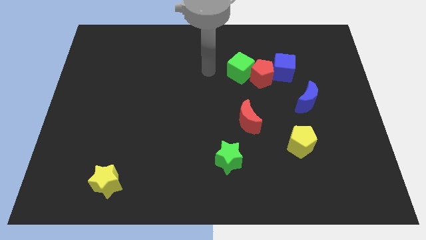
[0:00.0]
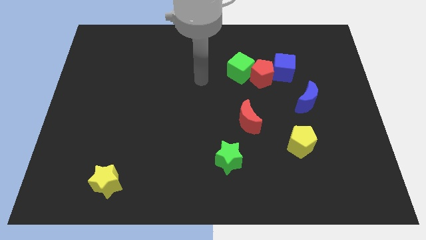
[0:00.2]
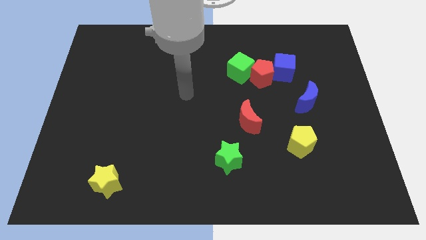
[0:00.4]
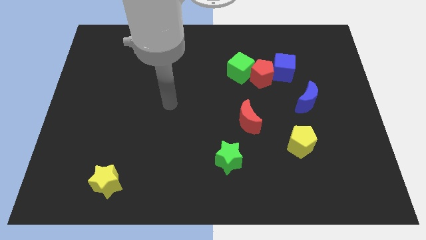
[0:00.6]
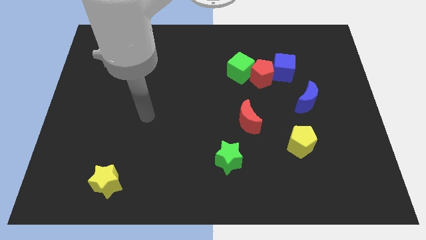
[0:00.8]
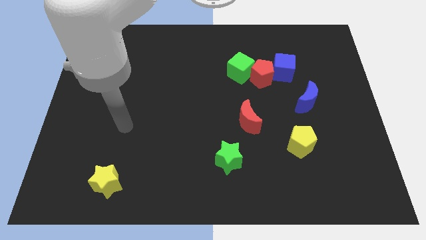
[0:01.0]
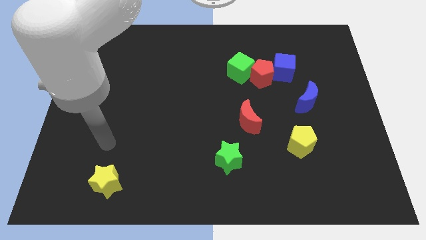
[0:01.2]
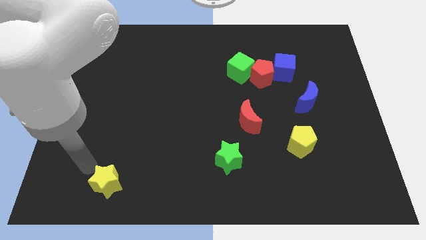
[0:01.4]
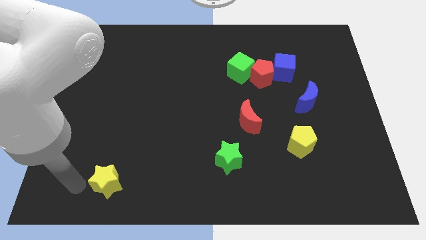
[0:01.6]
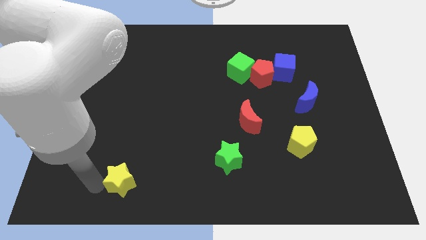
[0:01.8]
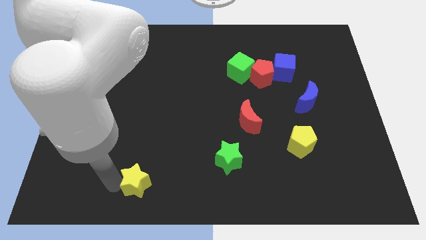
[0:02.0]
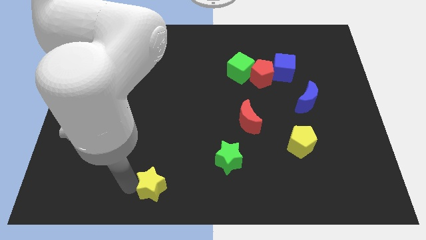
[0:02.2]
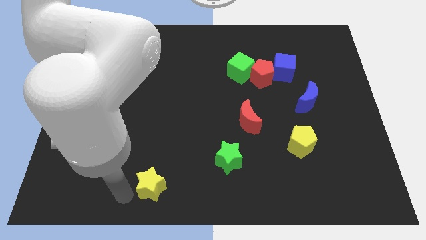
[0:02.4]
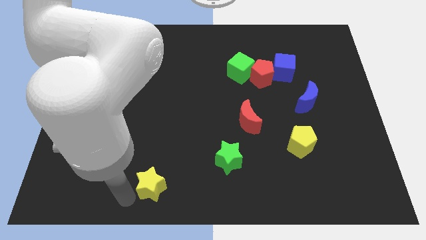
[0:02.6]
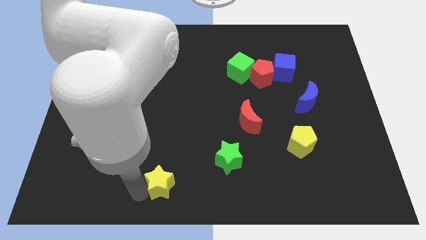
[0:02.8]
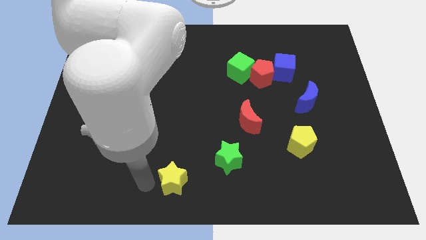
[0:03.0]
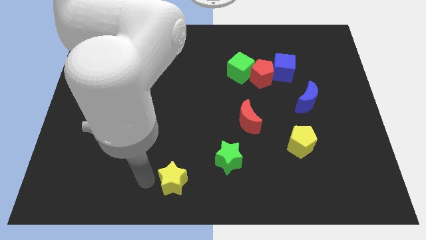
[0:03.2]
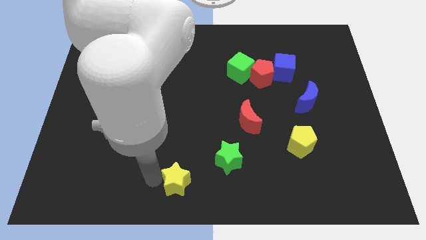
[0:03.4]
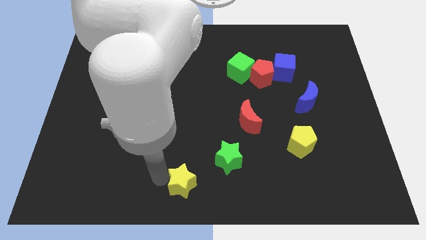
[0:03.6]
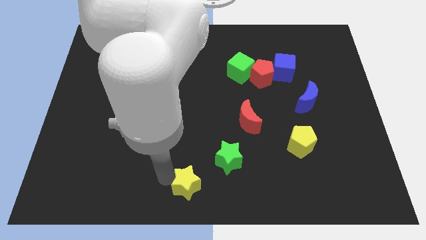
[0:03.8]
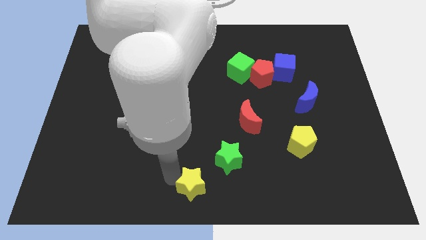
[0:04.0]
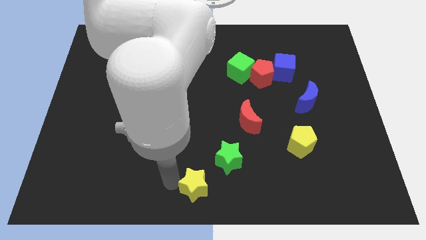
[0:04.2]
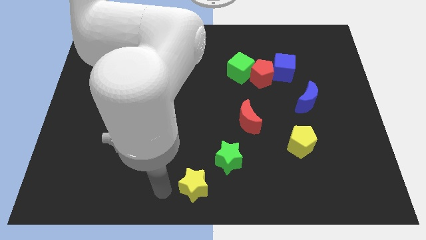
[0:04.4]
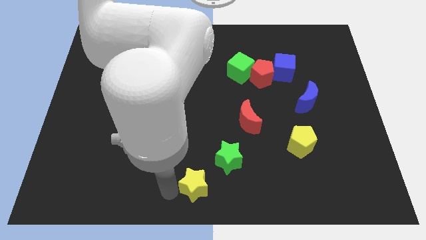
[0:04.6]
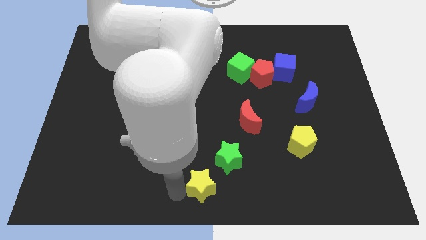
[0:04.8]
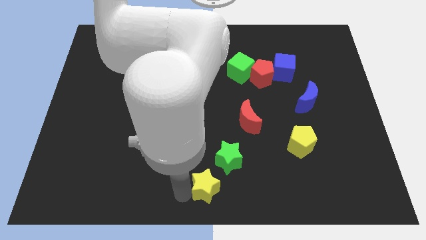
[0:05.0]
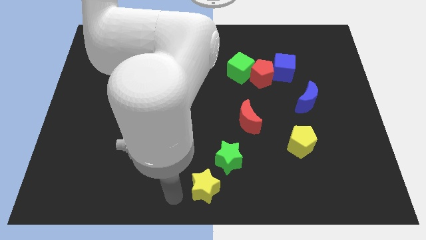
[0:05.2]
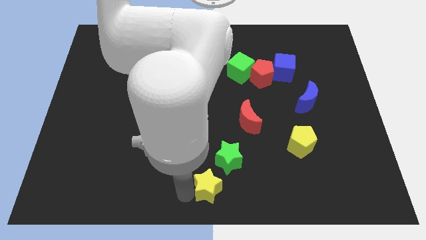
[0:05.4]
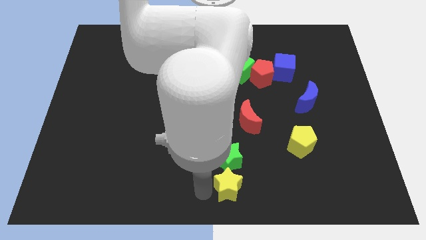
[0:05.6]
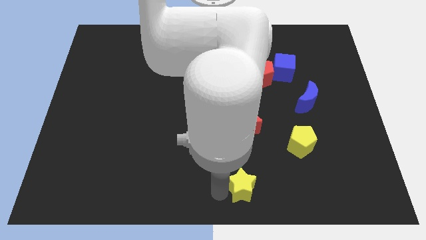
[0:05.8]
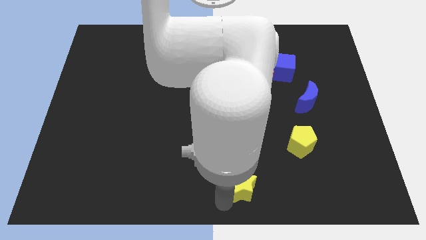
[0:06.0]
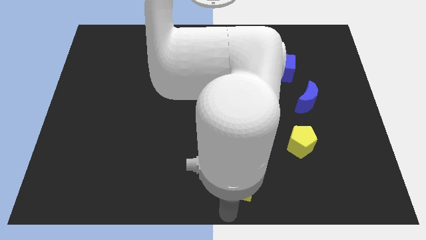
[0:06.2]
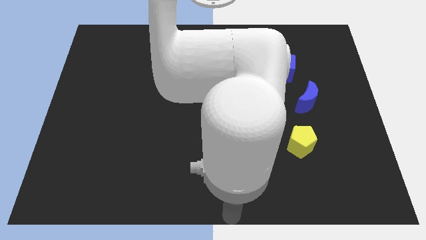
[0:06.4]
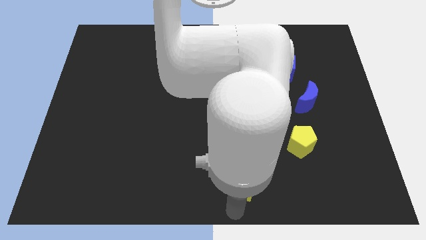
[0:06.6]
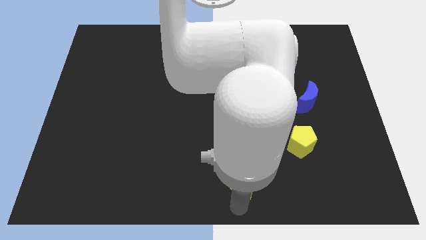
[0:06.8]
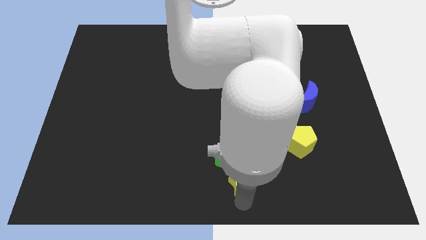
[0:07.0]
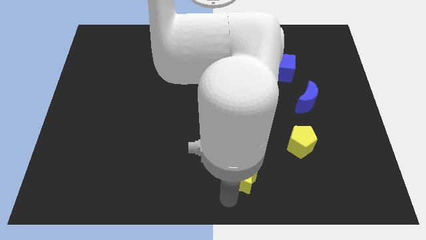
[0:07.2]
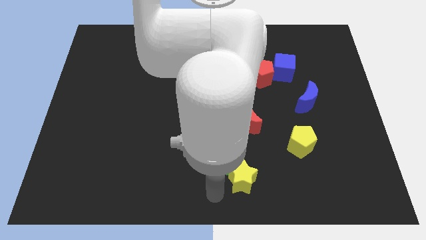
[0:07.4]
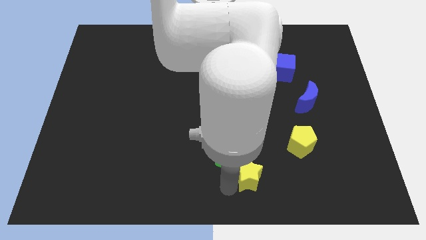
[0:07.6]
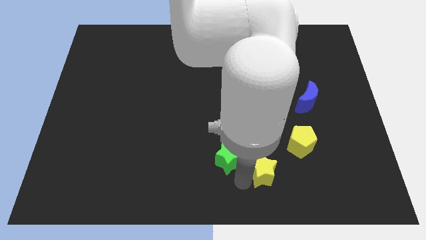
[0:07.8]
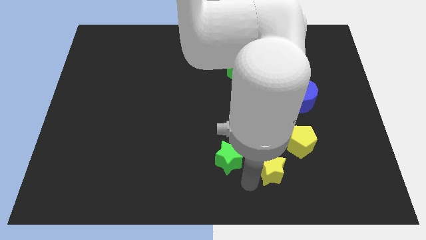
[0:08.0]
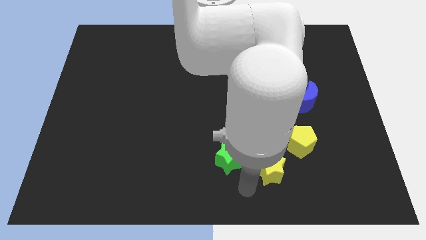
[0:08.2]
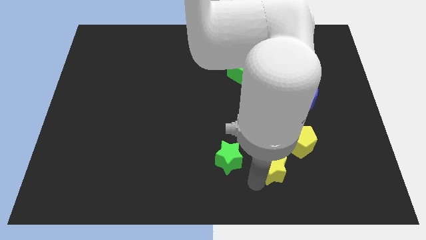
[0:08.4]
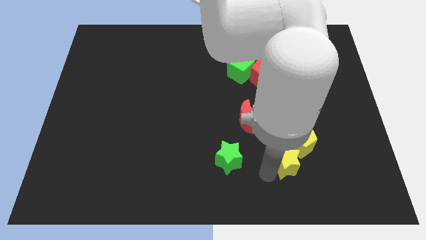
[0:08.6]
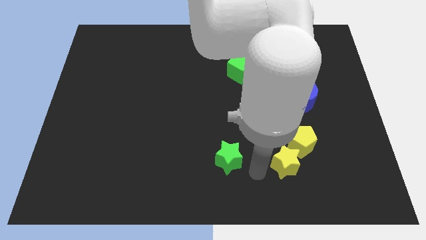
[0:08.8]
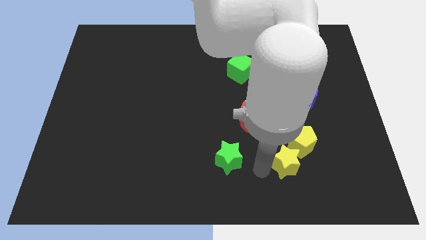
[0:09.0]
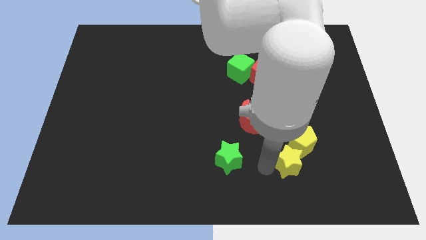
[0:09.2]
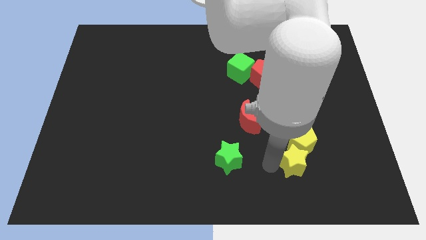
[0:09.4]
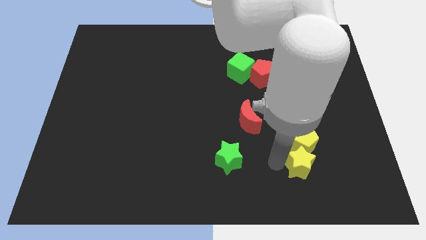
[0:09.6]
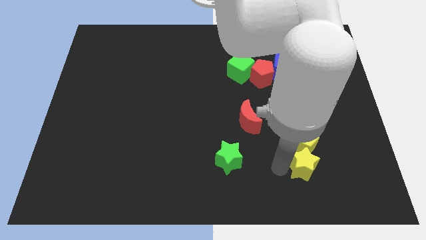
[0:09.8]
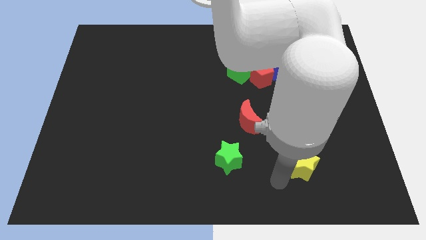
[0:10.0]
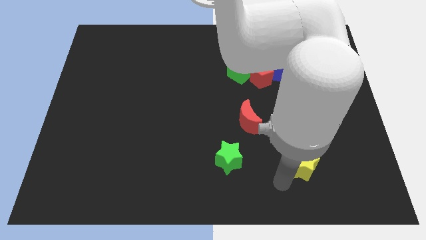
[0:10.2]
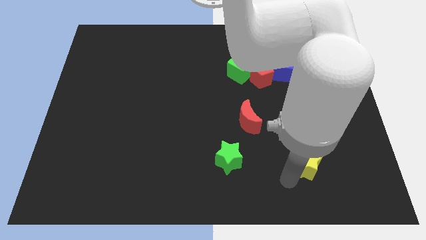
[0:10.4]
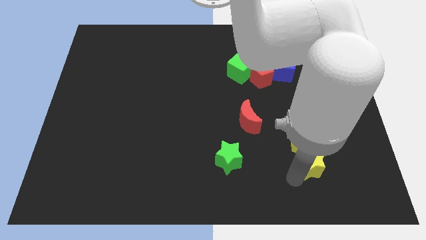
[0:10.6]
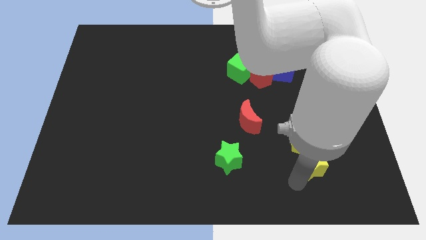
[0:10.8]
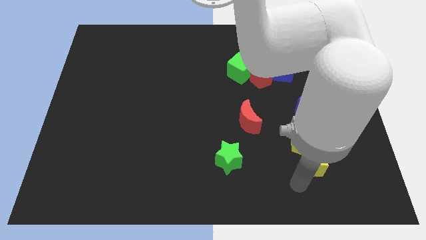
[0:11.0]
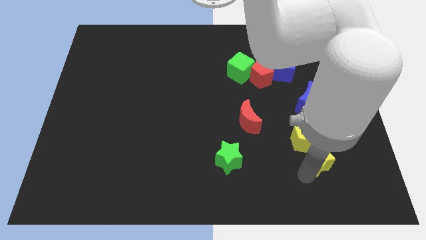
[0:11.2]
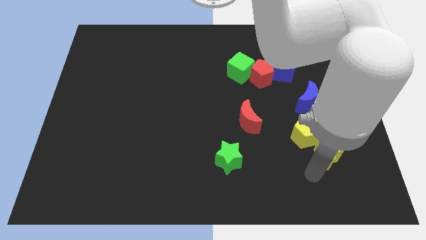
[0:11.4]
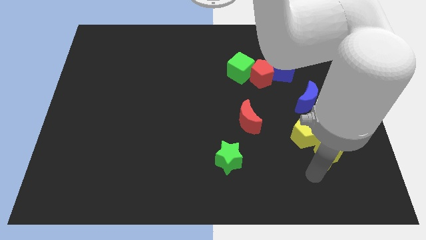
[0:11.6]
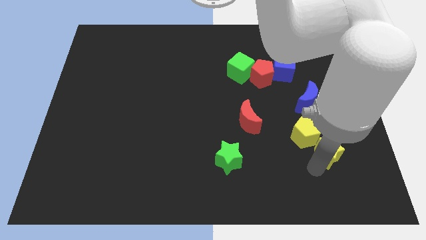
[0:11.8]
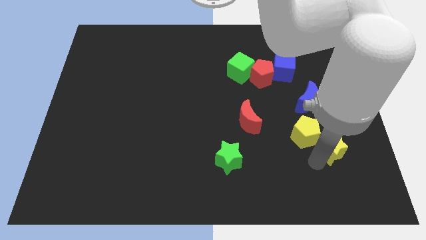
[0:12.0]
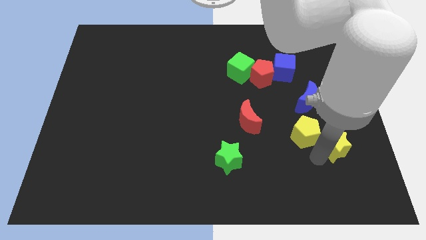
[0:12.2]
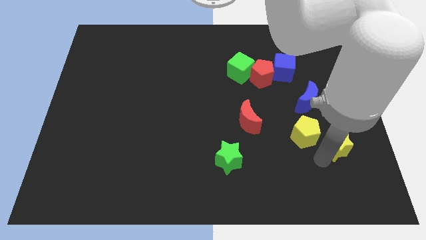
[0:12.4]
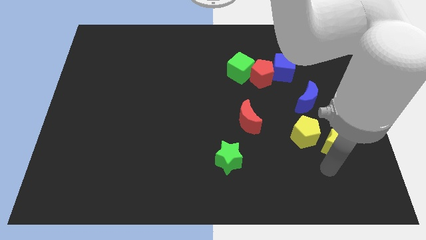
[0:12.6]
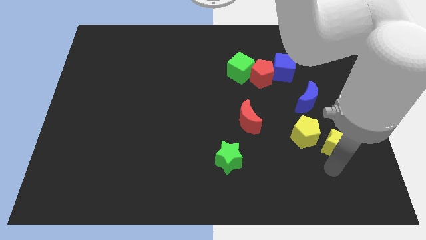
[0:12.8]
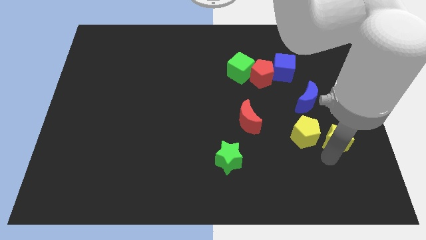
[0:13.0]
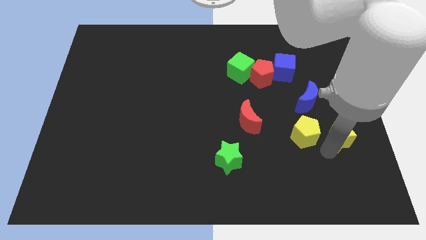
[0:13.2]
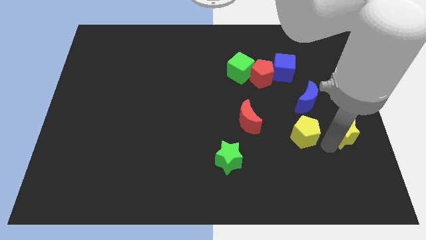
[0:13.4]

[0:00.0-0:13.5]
slide the yellow star to the right side
